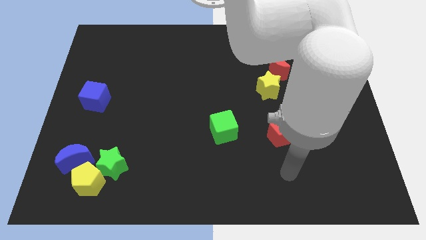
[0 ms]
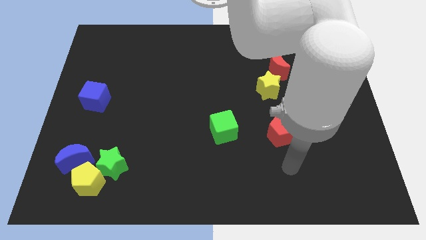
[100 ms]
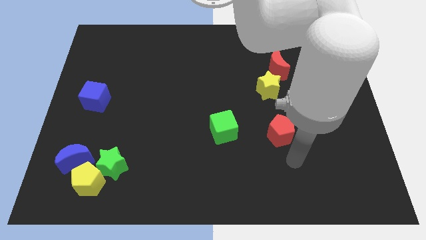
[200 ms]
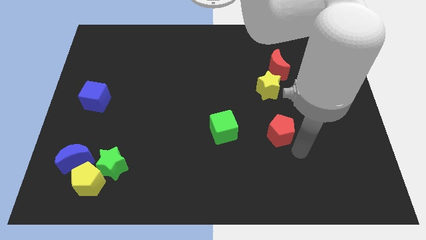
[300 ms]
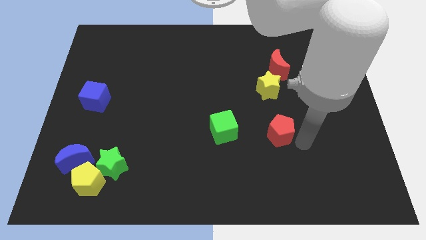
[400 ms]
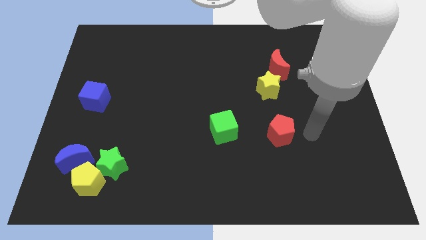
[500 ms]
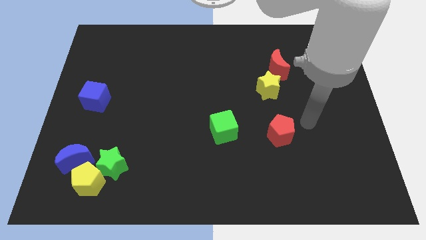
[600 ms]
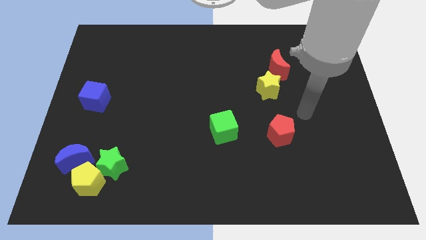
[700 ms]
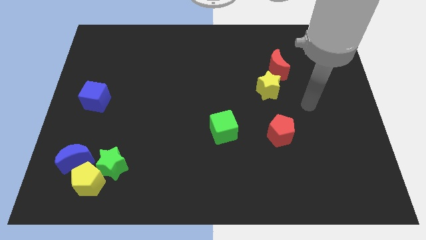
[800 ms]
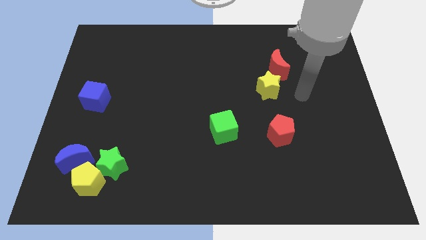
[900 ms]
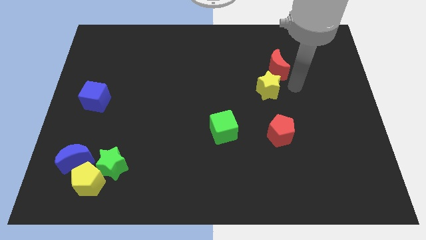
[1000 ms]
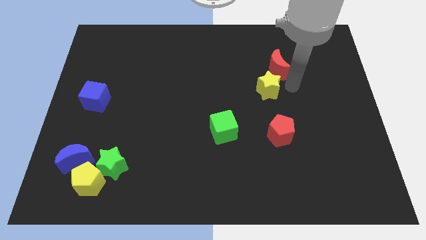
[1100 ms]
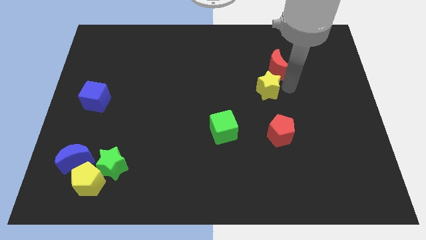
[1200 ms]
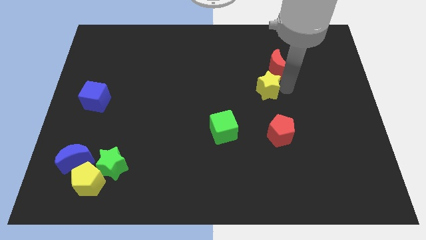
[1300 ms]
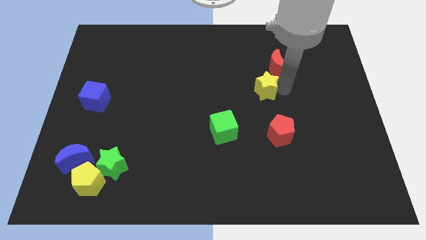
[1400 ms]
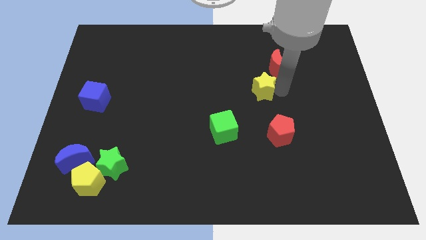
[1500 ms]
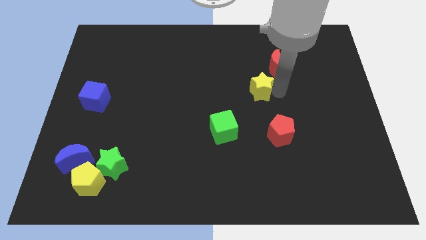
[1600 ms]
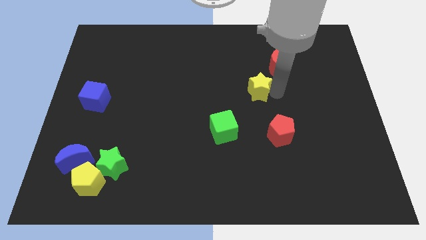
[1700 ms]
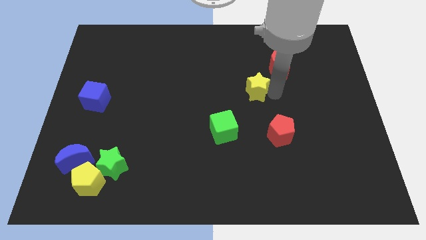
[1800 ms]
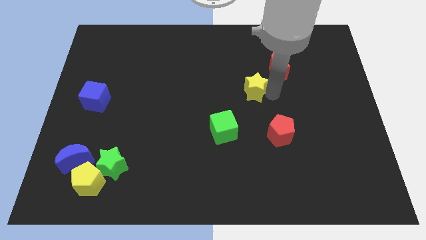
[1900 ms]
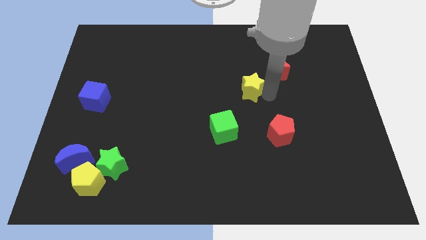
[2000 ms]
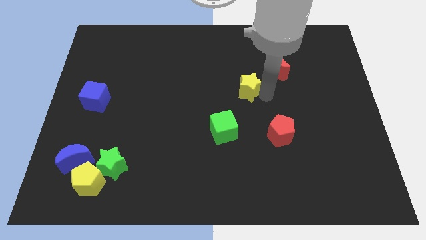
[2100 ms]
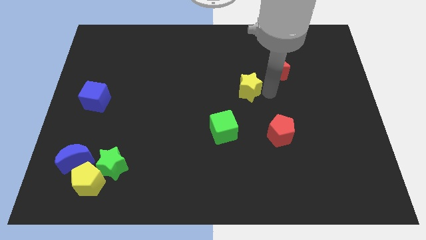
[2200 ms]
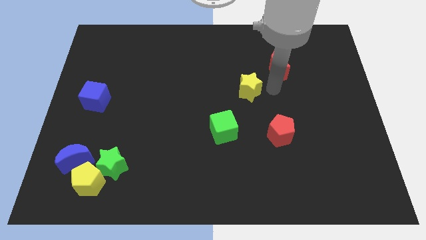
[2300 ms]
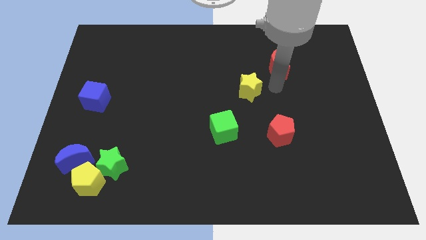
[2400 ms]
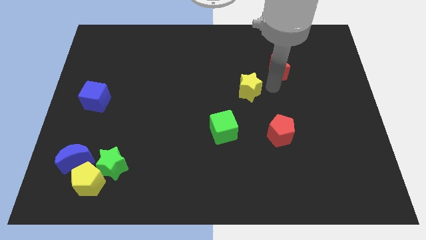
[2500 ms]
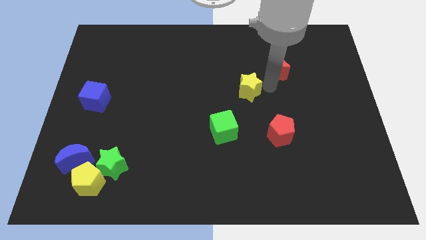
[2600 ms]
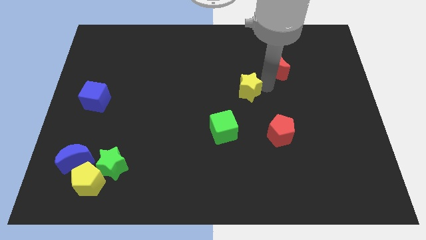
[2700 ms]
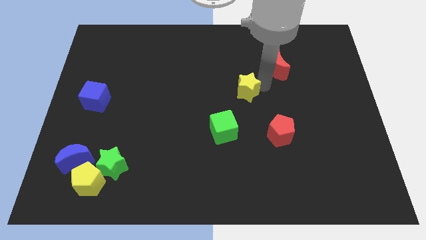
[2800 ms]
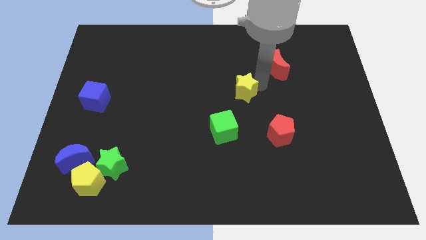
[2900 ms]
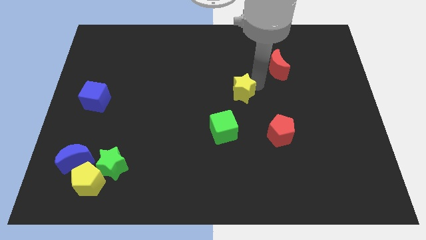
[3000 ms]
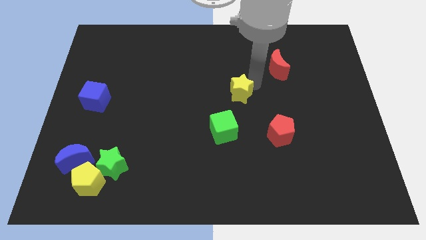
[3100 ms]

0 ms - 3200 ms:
move the yellow star to the left a bit

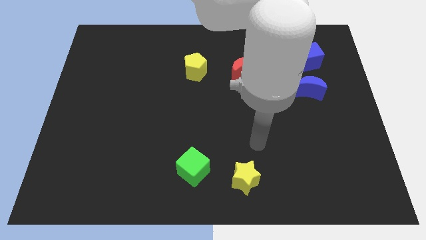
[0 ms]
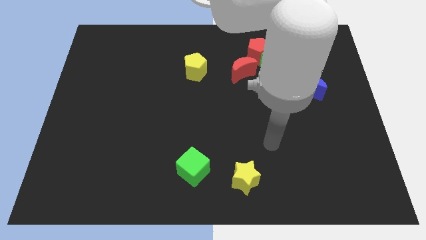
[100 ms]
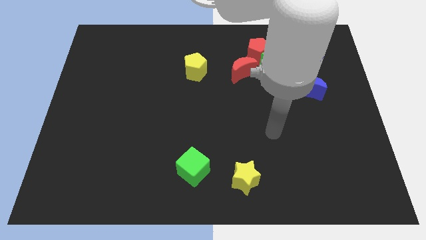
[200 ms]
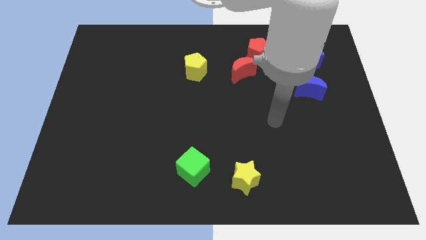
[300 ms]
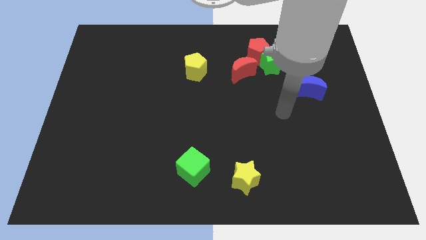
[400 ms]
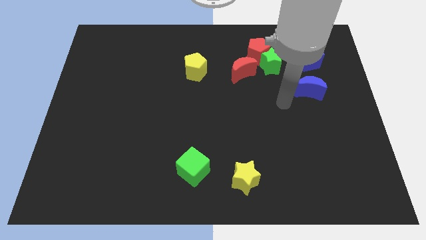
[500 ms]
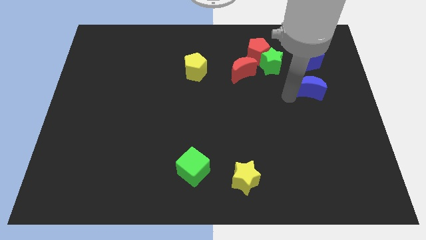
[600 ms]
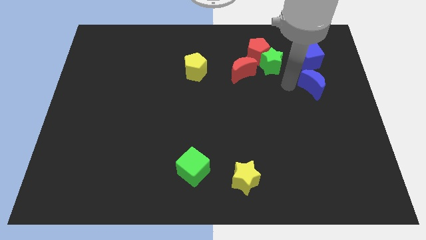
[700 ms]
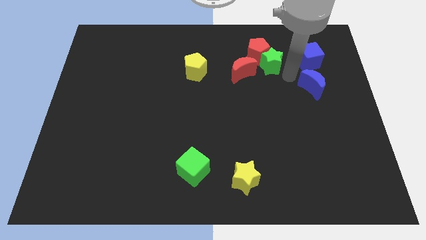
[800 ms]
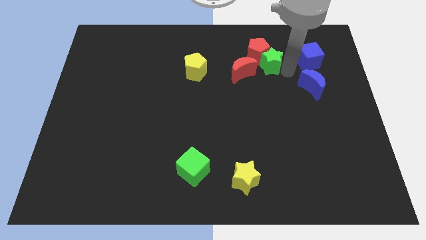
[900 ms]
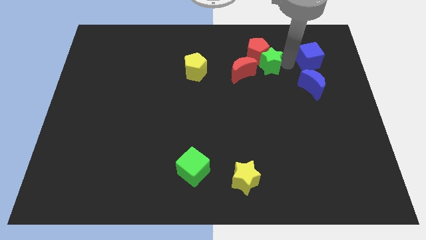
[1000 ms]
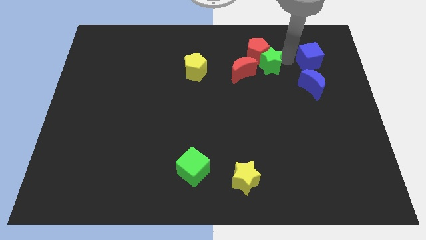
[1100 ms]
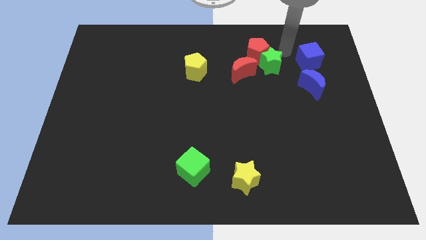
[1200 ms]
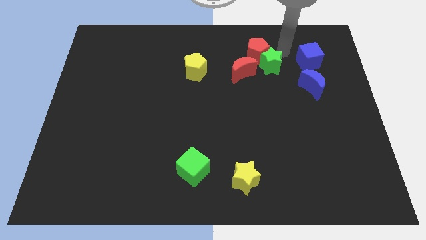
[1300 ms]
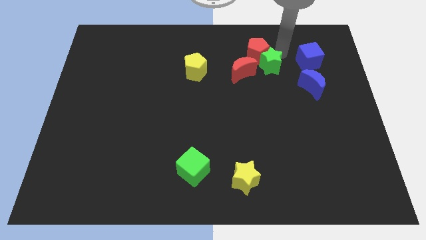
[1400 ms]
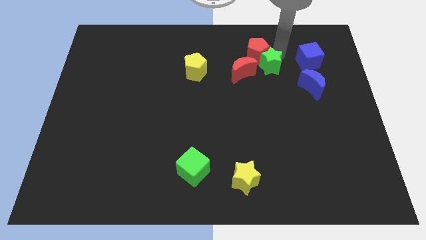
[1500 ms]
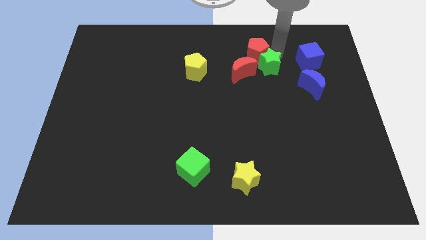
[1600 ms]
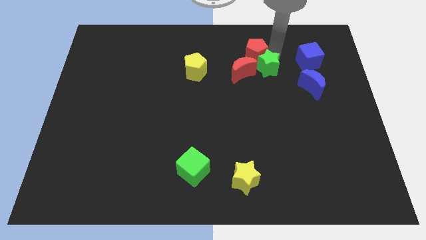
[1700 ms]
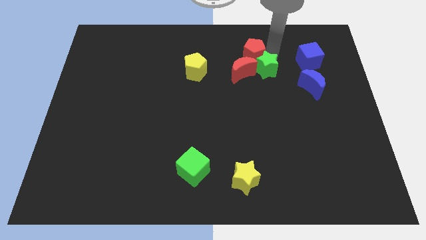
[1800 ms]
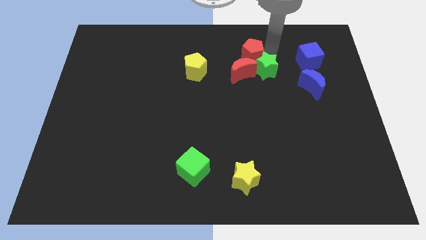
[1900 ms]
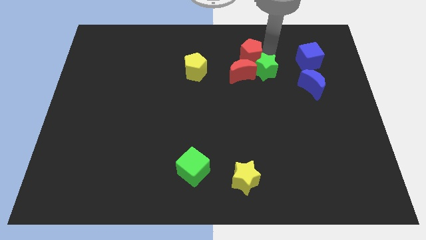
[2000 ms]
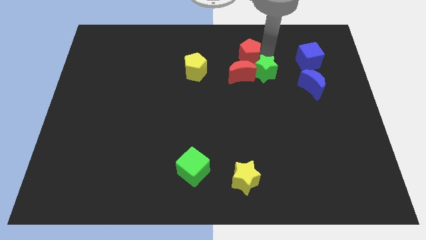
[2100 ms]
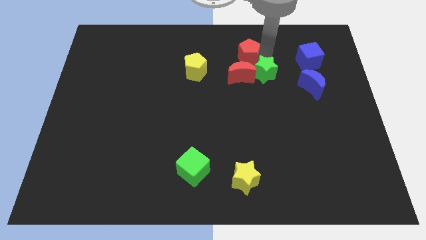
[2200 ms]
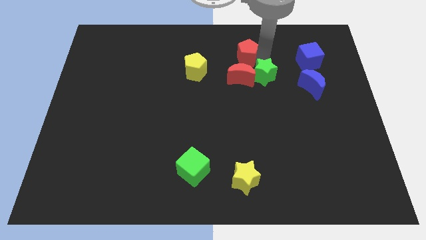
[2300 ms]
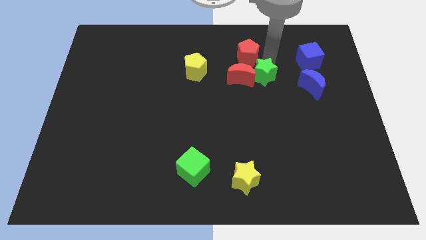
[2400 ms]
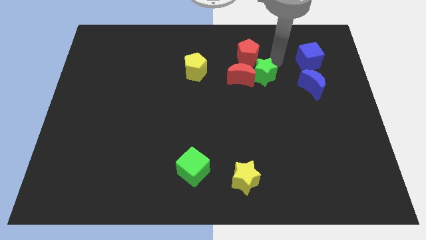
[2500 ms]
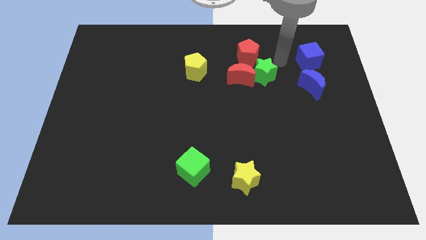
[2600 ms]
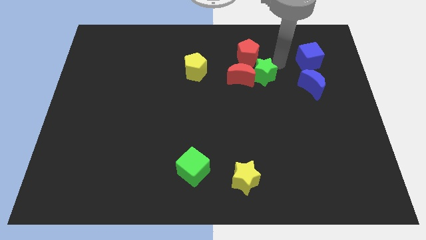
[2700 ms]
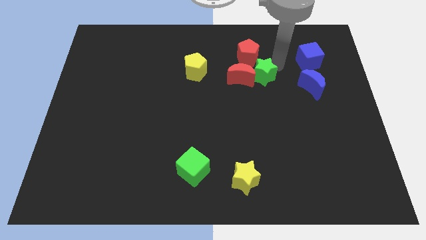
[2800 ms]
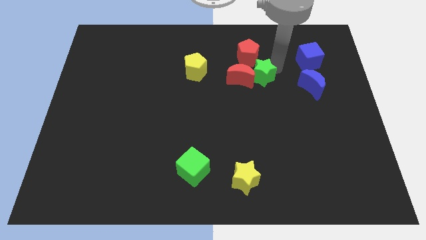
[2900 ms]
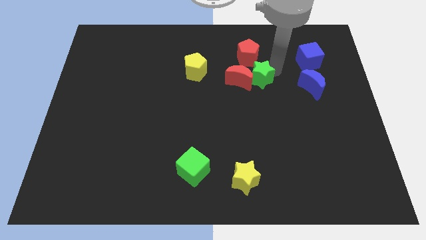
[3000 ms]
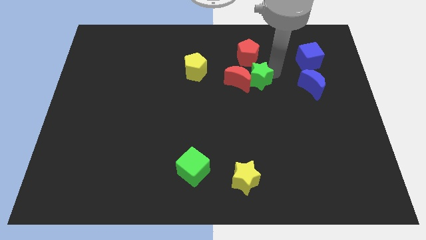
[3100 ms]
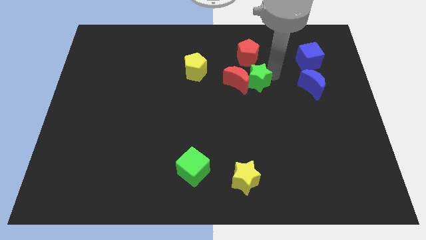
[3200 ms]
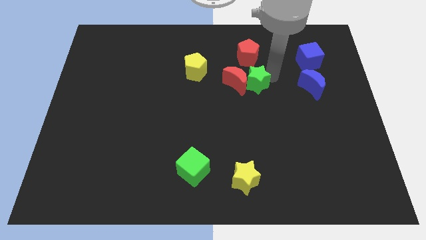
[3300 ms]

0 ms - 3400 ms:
move the green star slightly downwards and left

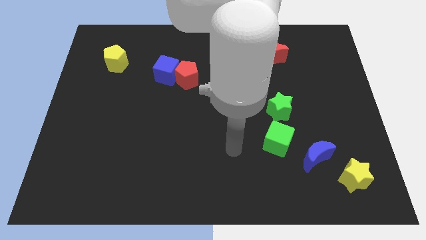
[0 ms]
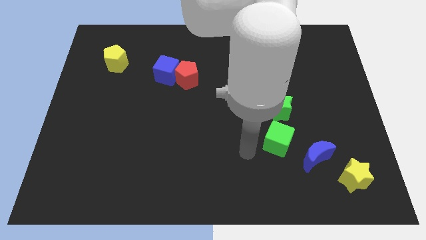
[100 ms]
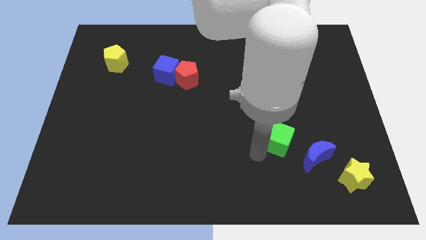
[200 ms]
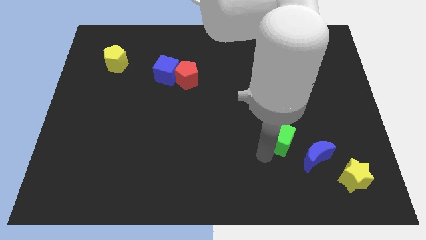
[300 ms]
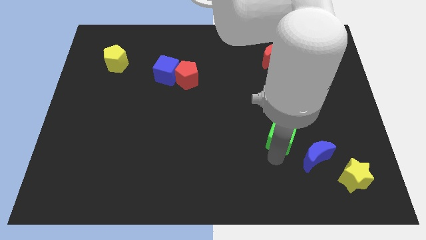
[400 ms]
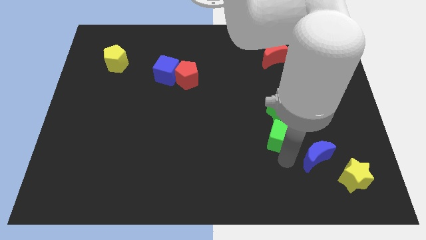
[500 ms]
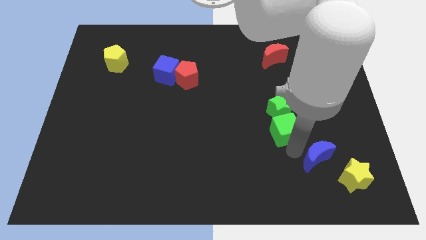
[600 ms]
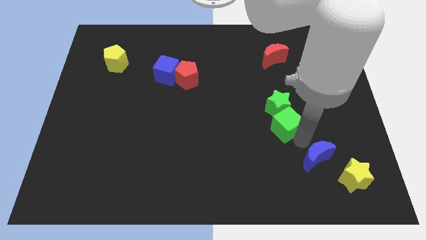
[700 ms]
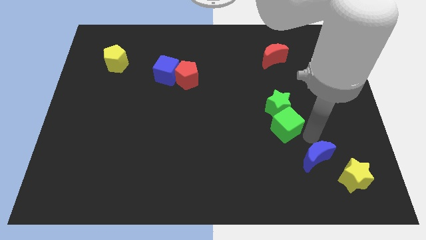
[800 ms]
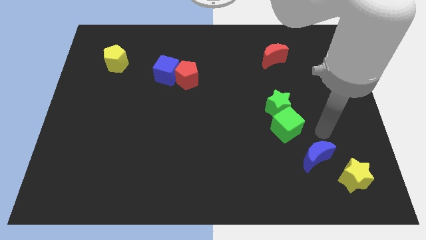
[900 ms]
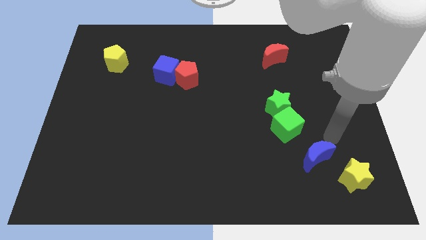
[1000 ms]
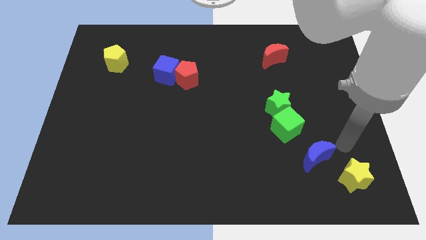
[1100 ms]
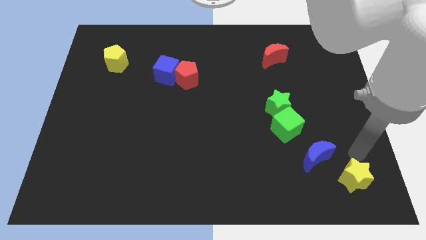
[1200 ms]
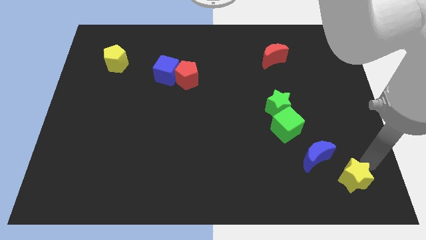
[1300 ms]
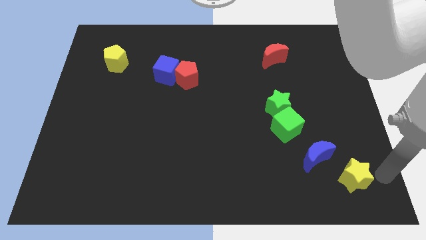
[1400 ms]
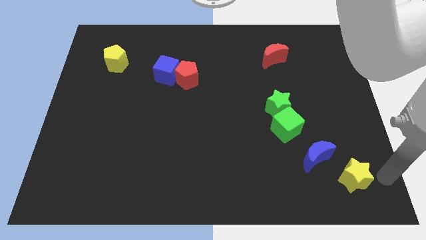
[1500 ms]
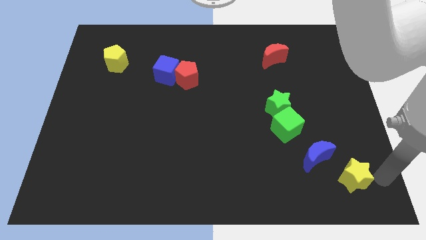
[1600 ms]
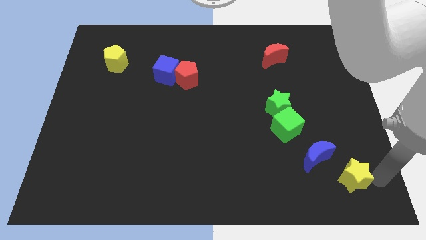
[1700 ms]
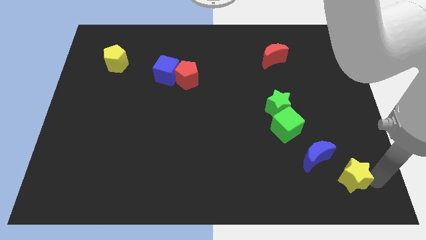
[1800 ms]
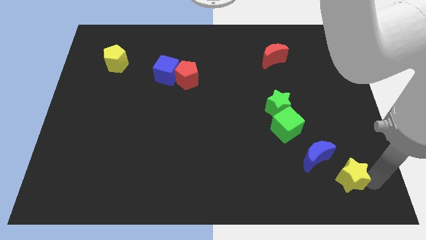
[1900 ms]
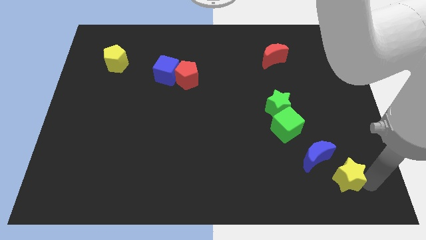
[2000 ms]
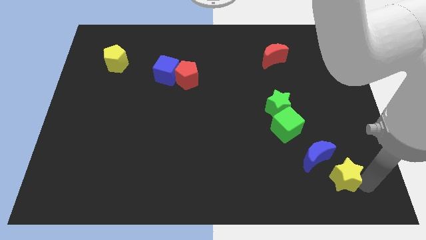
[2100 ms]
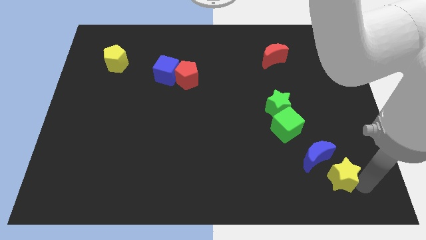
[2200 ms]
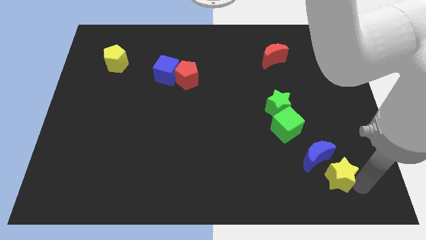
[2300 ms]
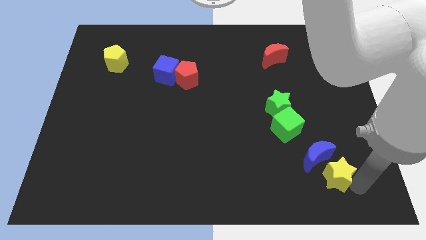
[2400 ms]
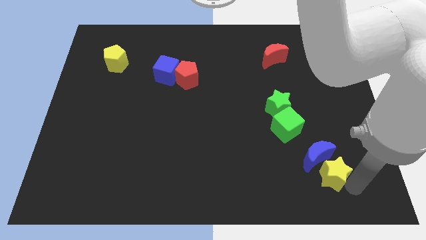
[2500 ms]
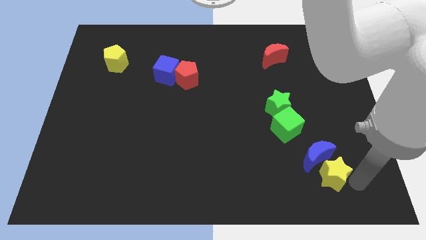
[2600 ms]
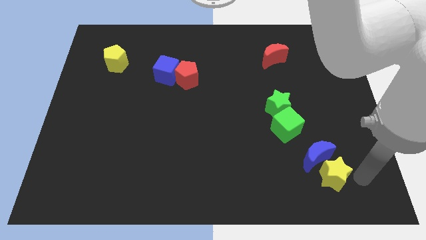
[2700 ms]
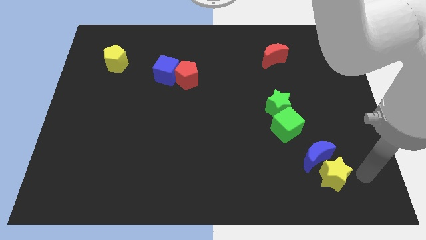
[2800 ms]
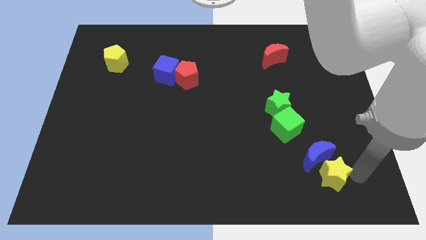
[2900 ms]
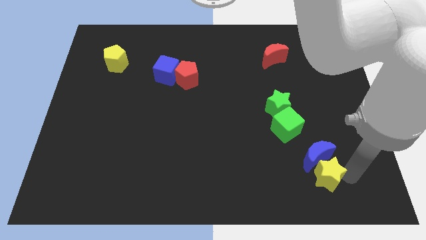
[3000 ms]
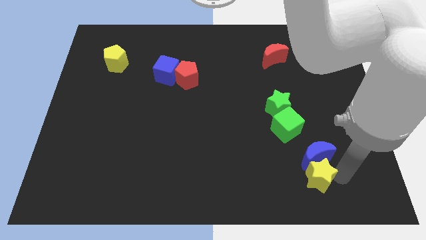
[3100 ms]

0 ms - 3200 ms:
slightly slide the yellow star left
